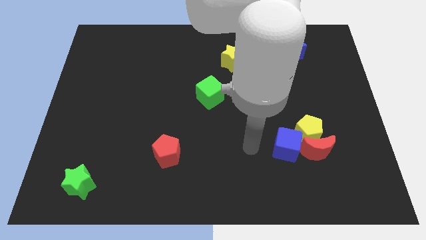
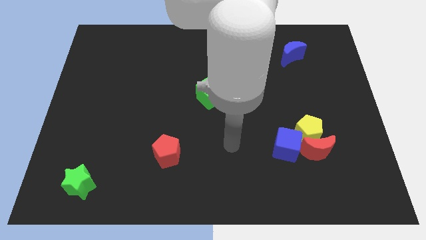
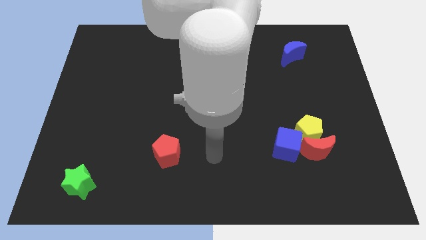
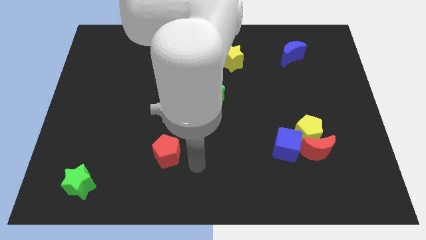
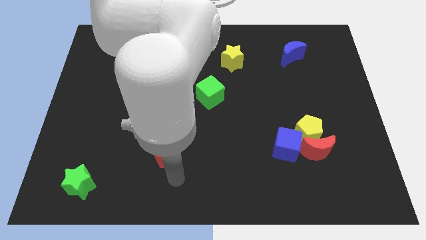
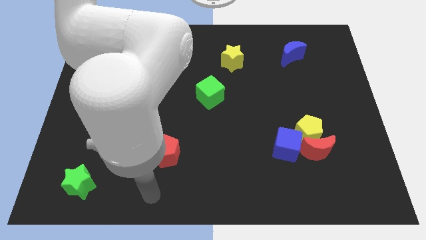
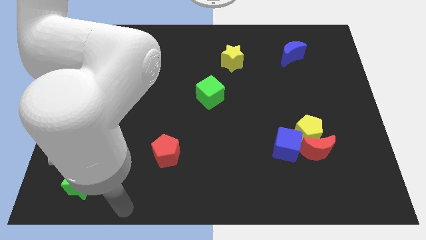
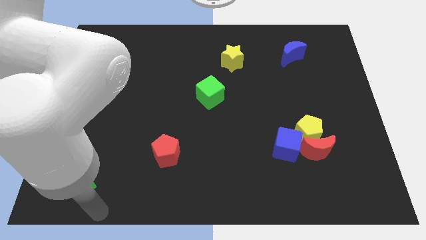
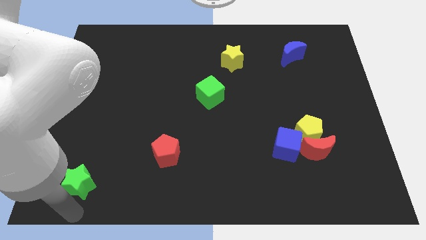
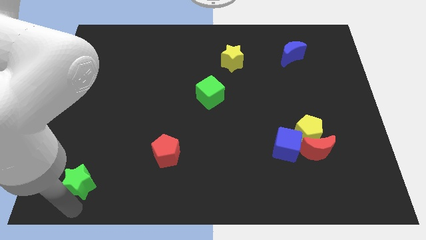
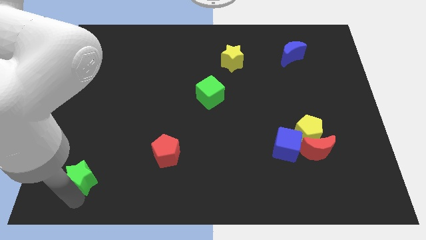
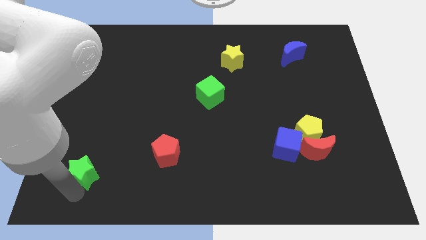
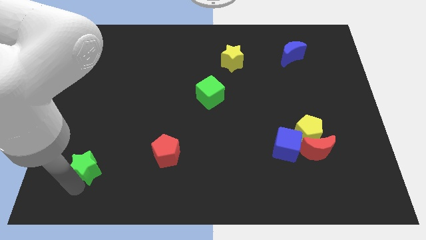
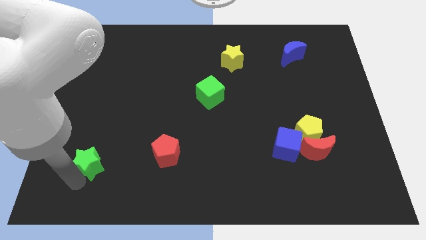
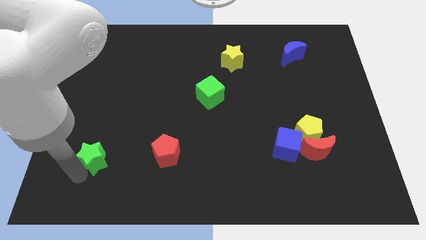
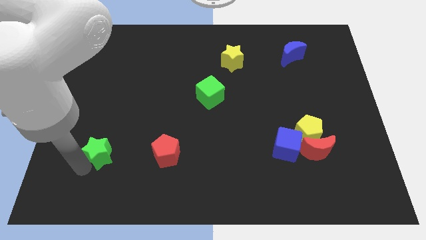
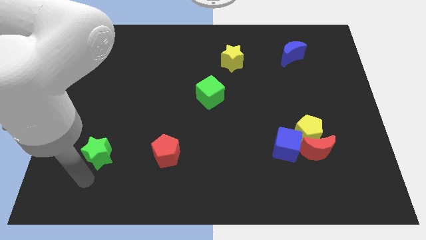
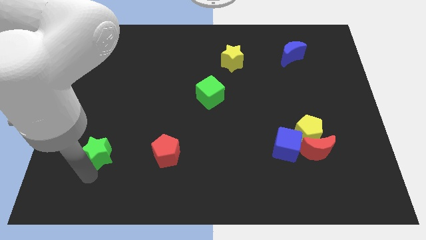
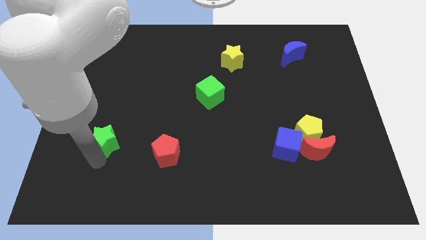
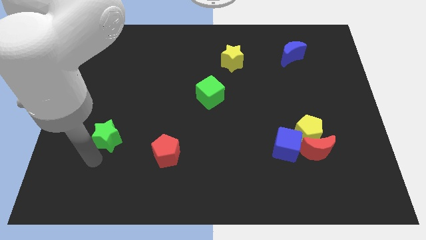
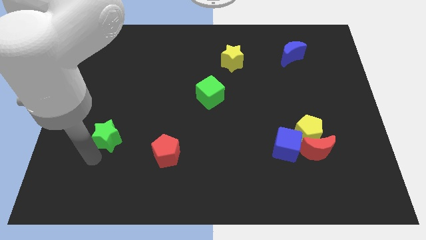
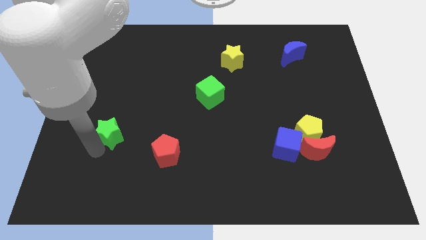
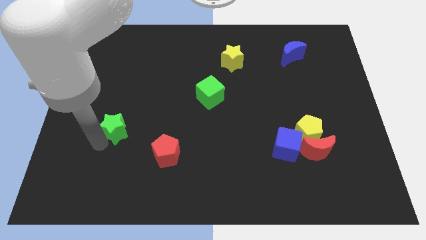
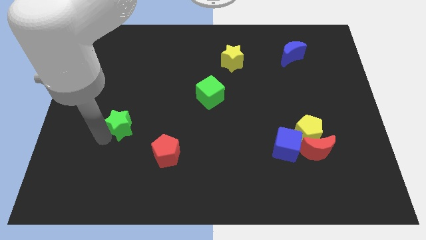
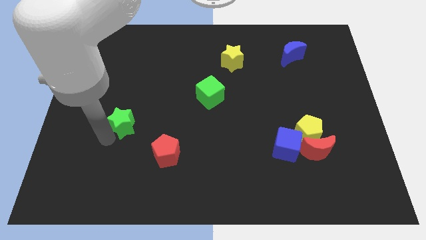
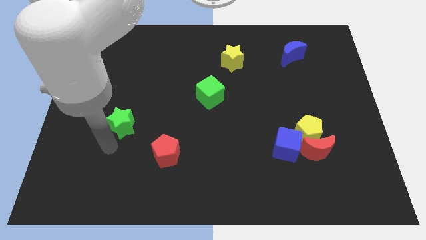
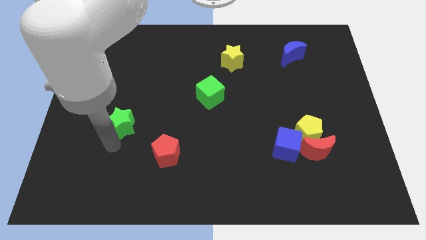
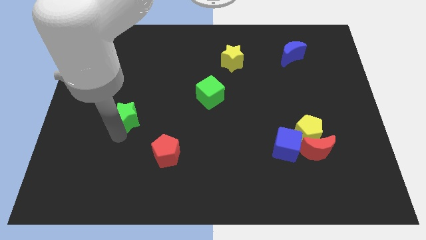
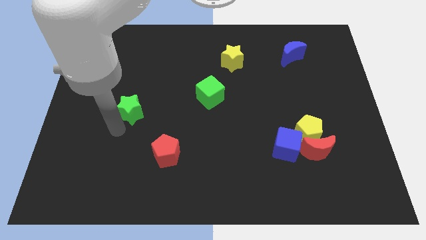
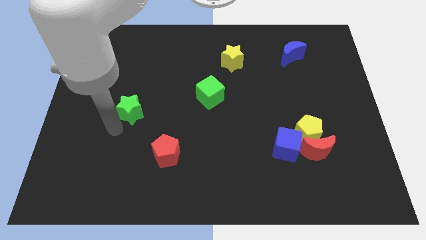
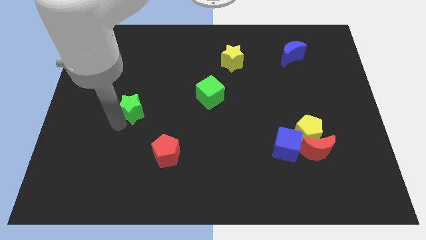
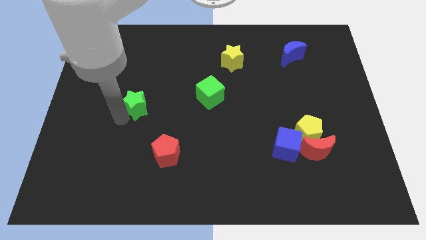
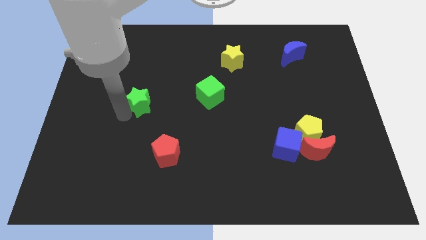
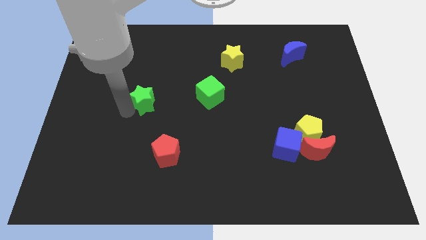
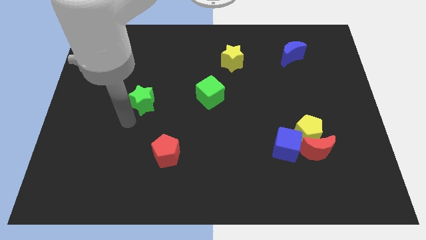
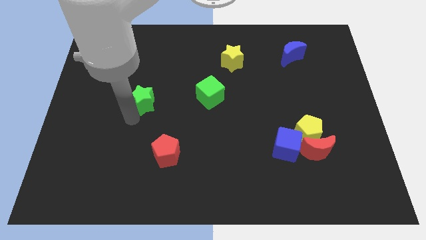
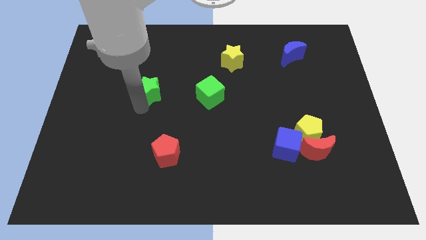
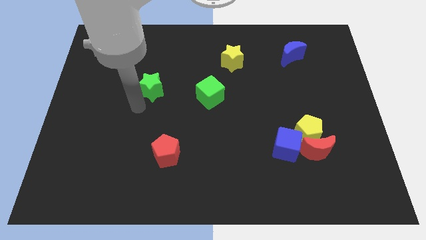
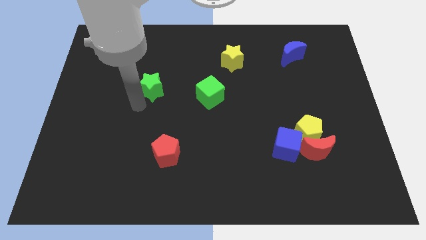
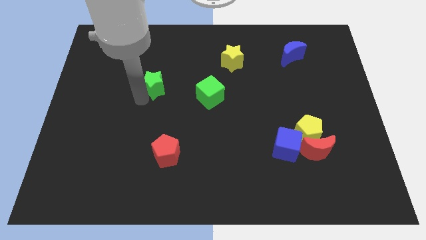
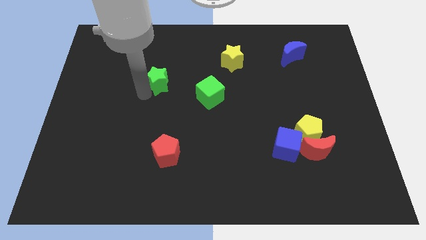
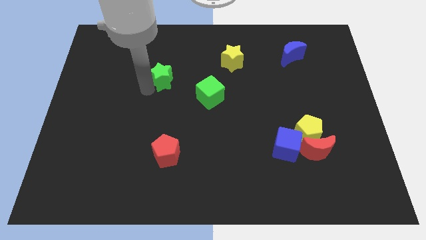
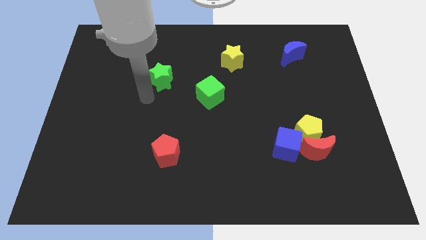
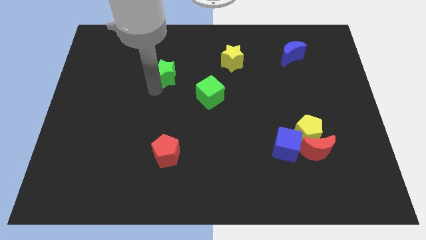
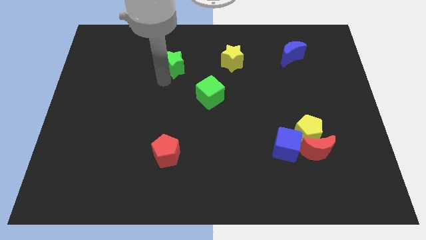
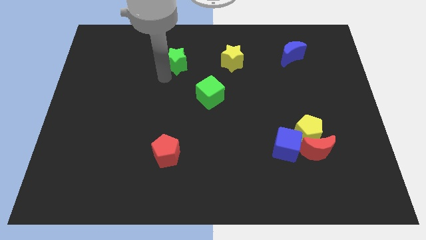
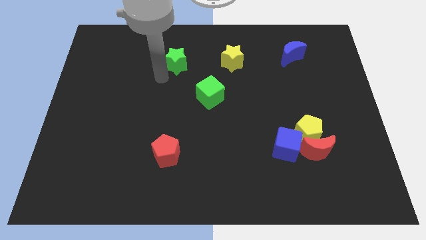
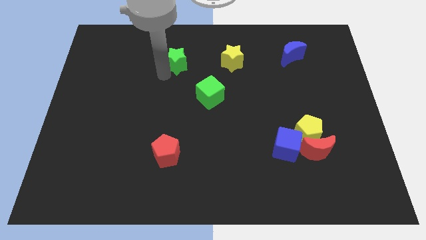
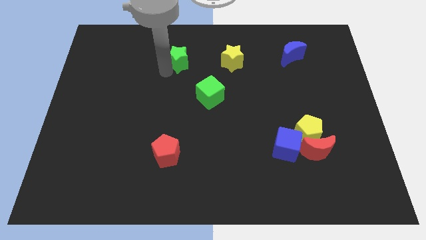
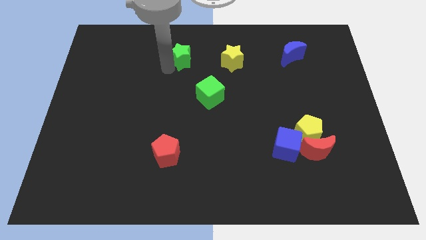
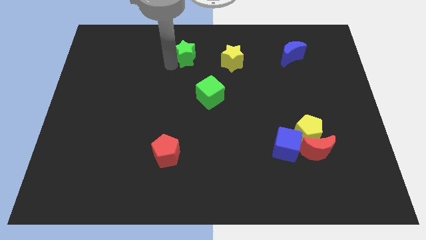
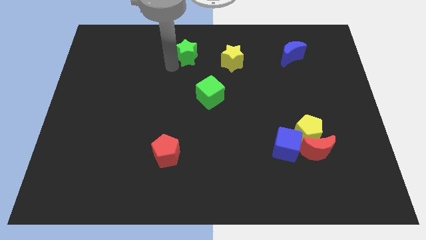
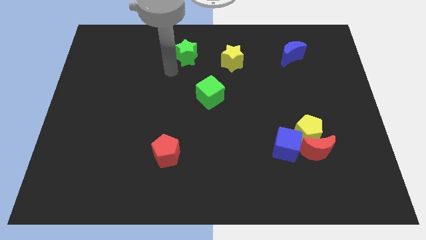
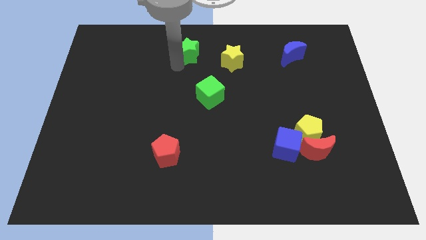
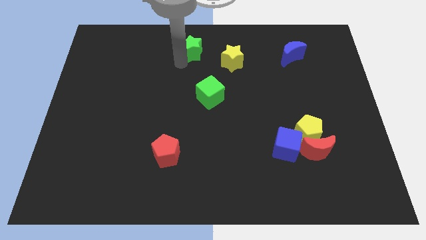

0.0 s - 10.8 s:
slide the green star to the top

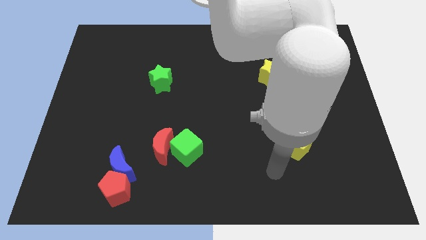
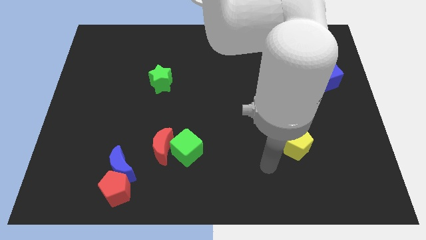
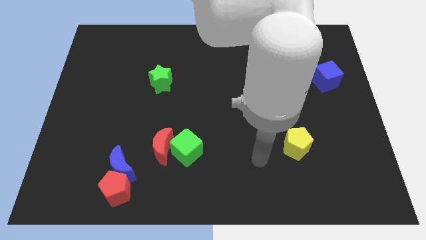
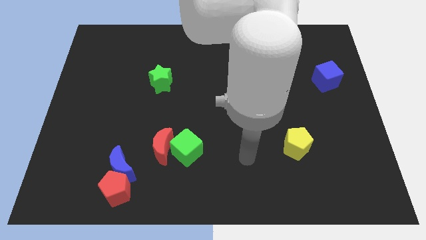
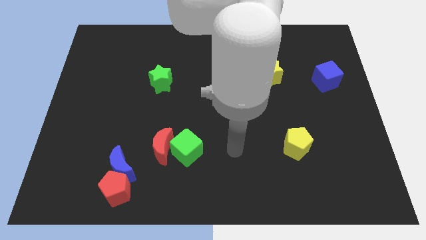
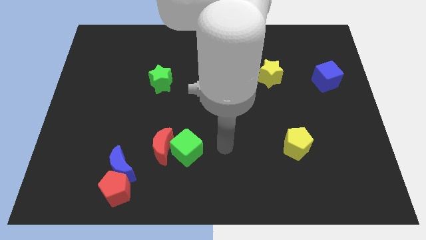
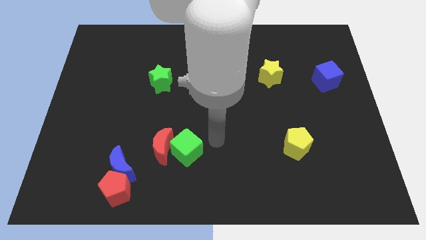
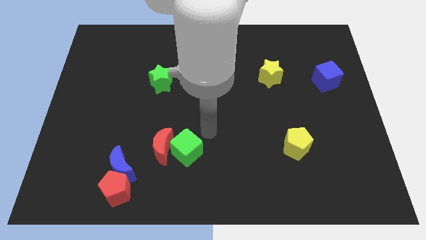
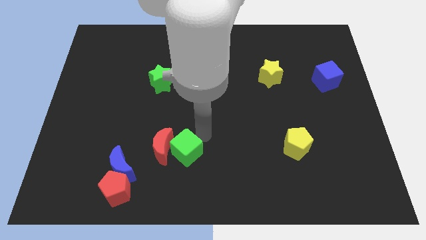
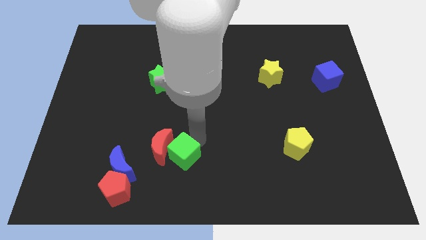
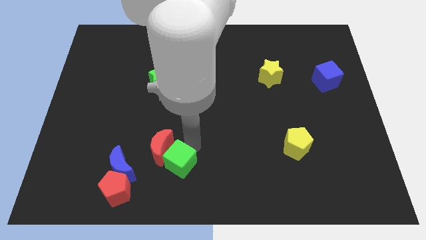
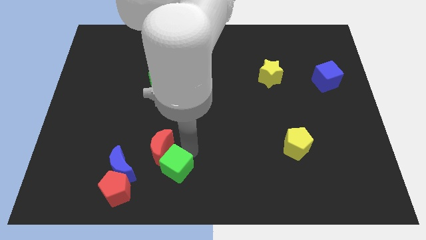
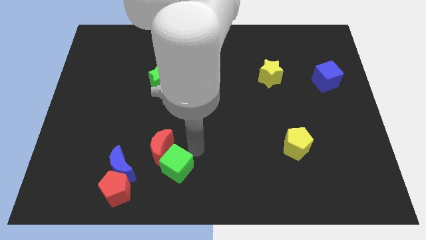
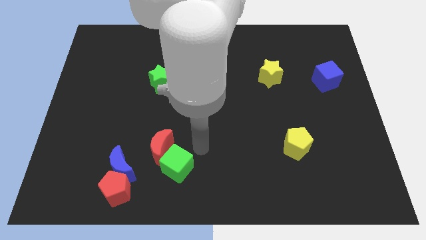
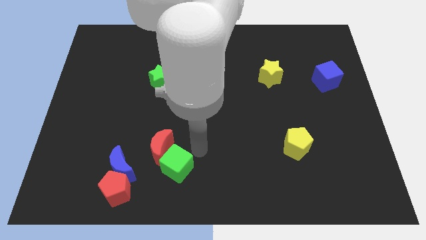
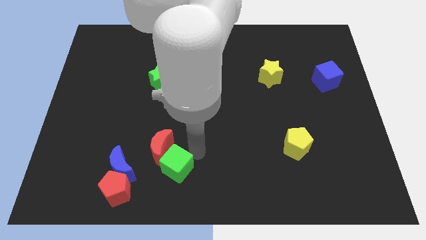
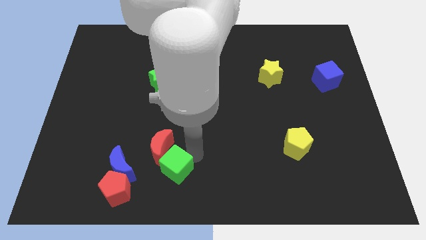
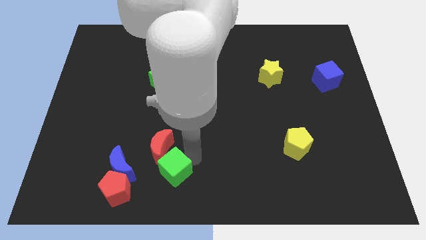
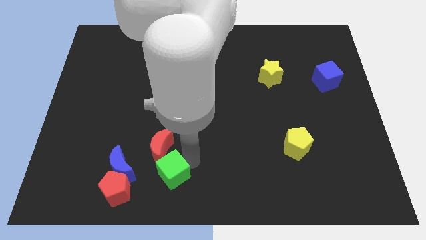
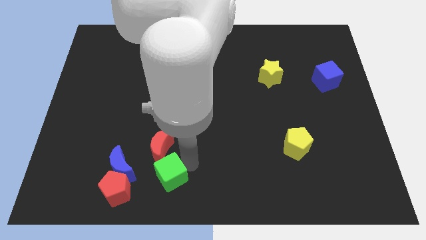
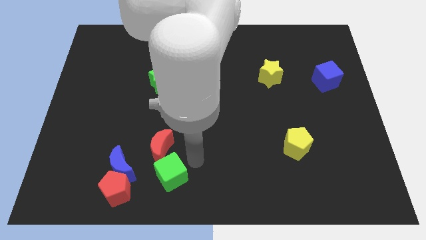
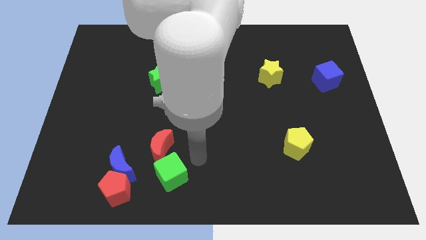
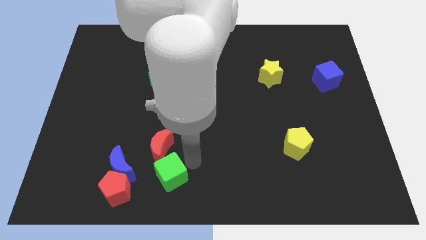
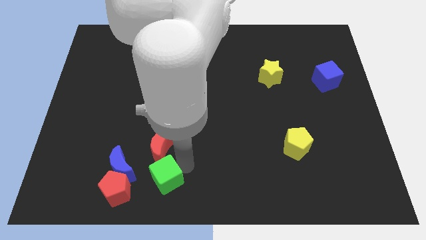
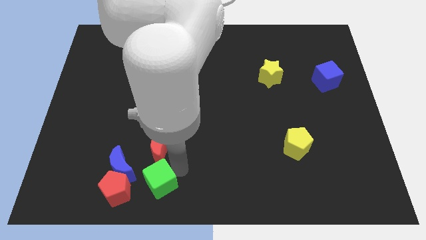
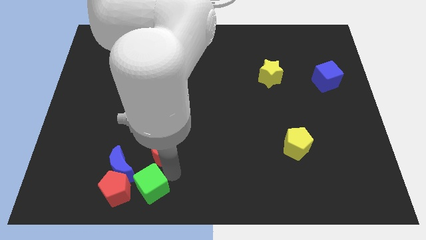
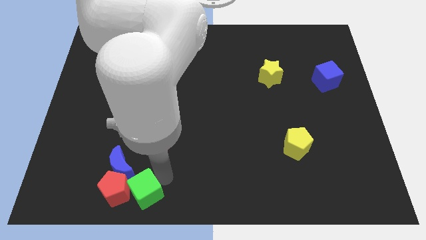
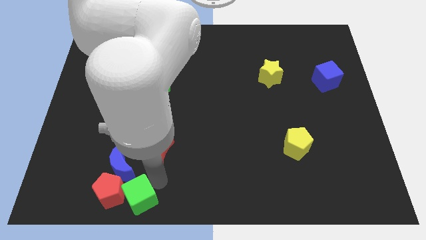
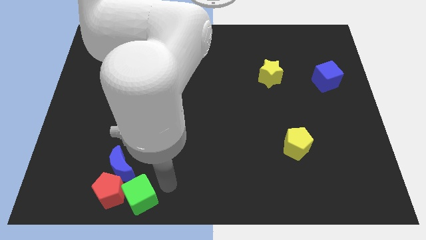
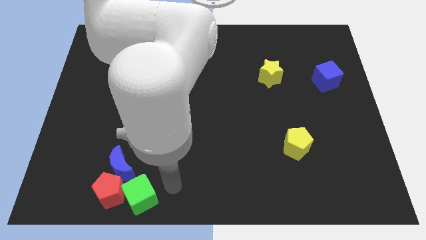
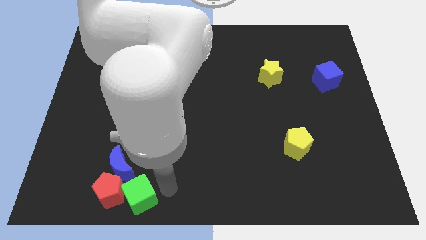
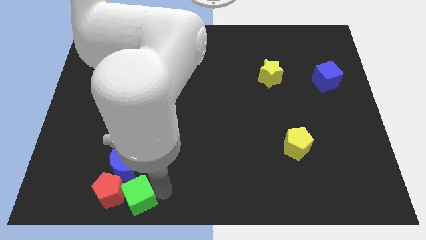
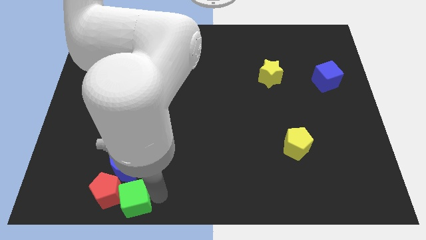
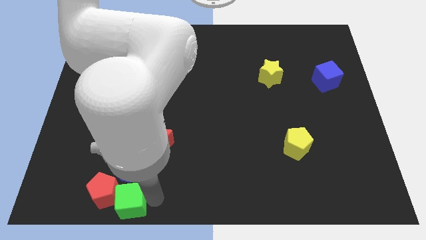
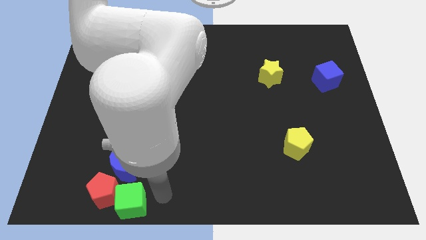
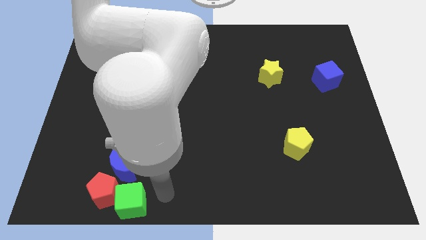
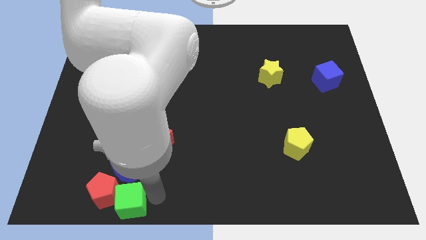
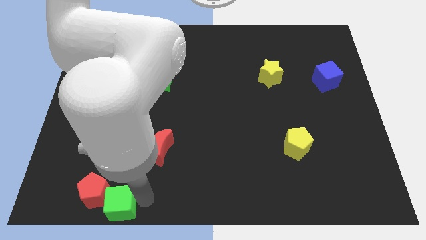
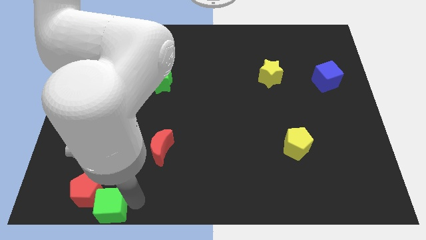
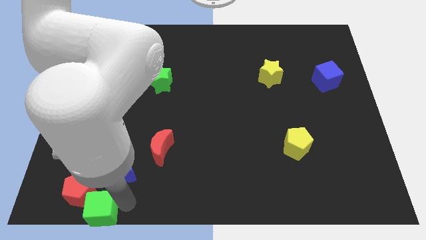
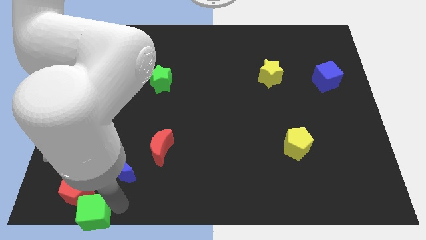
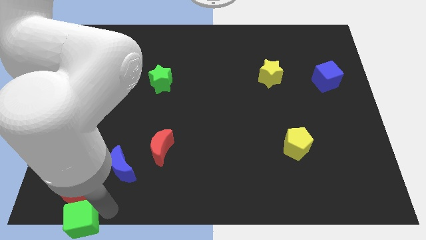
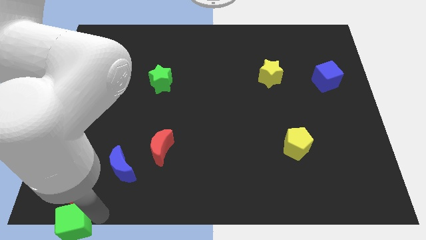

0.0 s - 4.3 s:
push the green cube to the bottom left of the board
